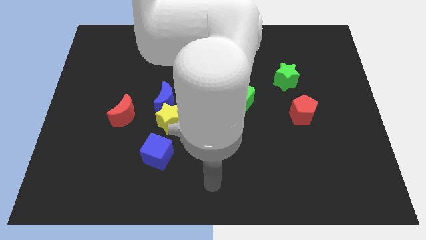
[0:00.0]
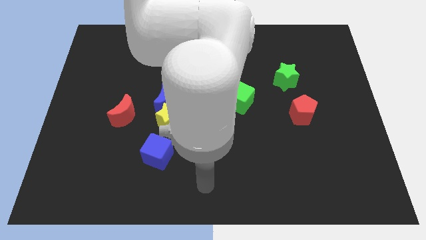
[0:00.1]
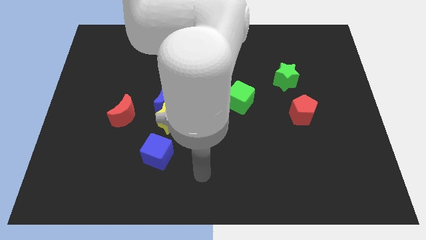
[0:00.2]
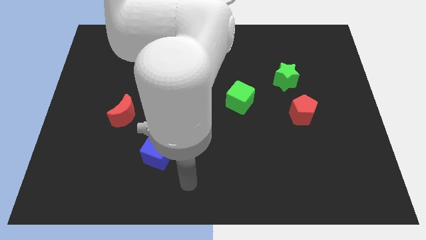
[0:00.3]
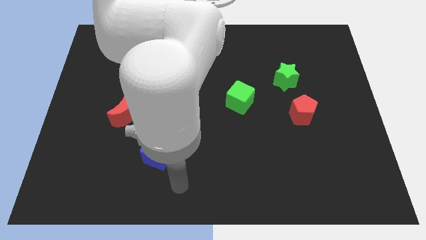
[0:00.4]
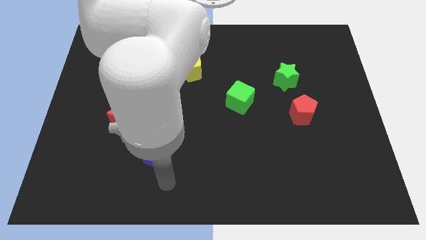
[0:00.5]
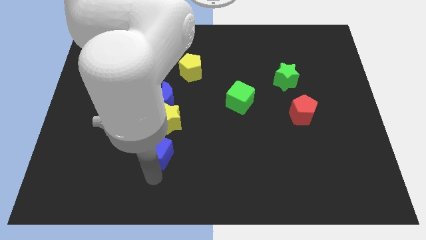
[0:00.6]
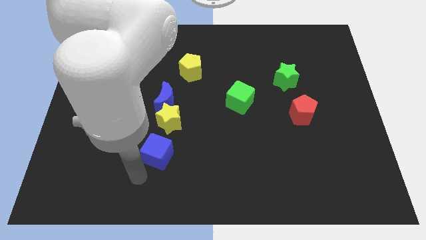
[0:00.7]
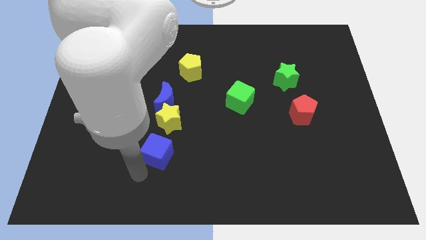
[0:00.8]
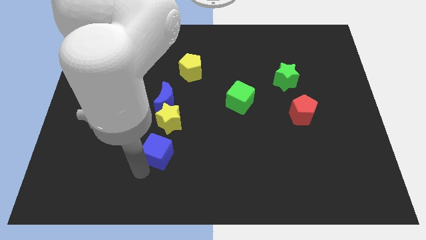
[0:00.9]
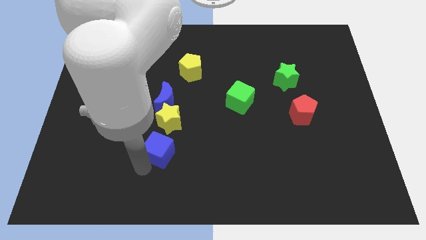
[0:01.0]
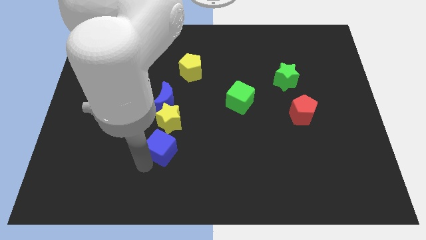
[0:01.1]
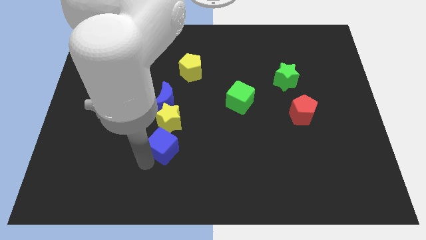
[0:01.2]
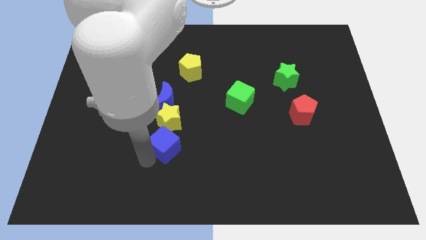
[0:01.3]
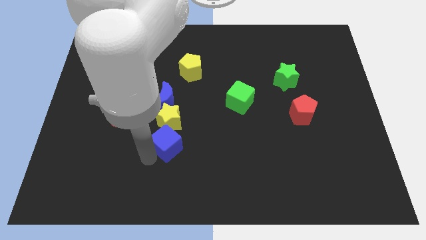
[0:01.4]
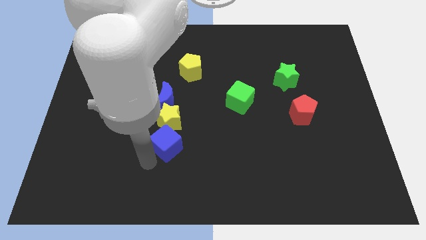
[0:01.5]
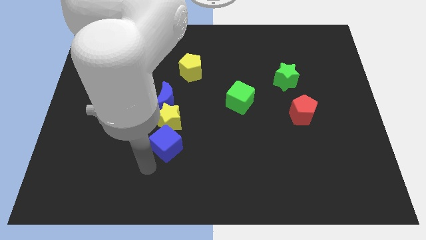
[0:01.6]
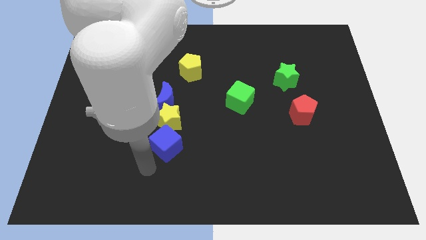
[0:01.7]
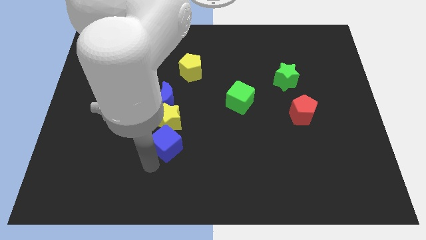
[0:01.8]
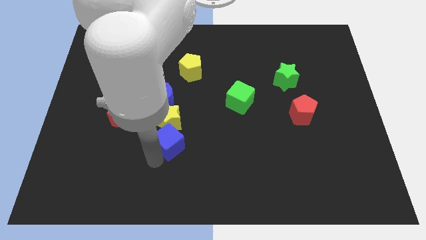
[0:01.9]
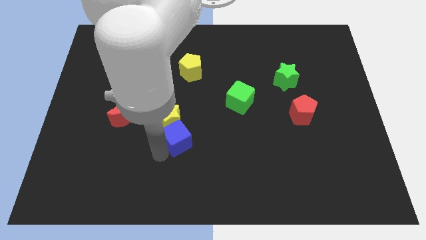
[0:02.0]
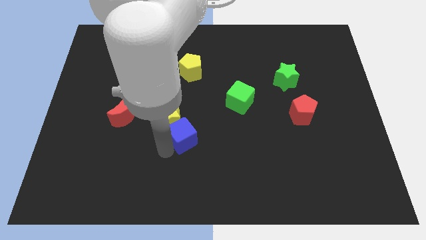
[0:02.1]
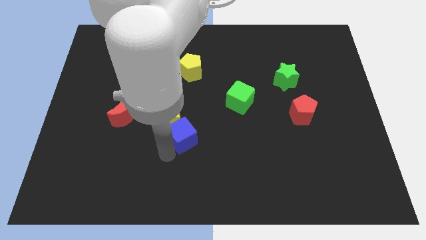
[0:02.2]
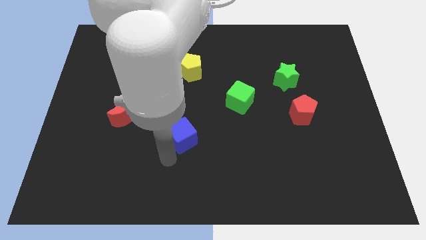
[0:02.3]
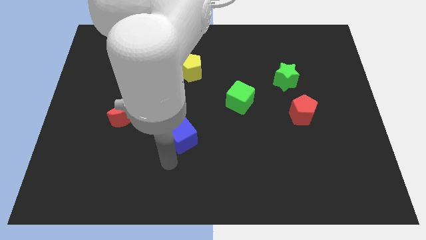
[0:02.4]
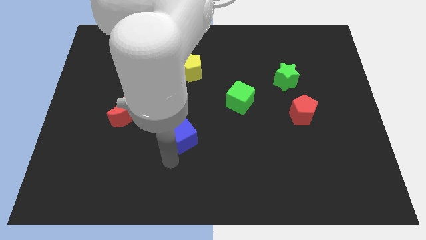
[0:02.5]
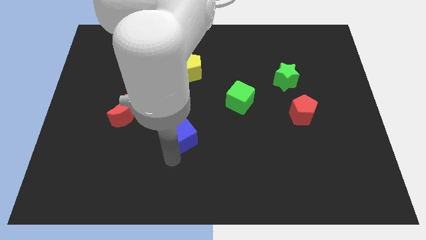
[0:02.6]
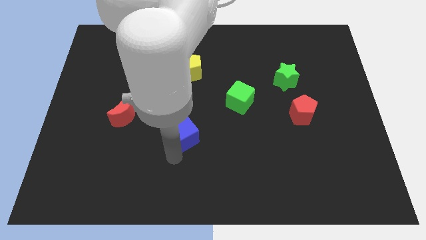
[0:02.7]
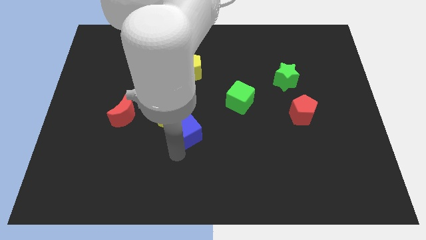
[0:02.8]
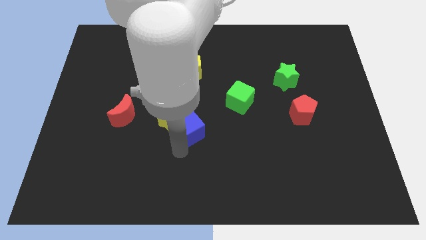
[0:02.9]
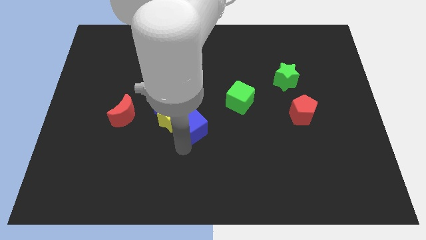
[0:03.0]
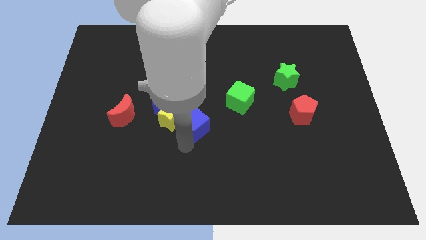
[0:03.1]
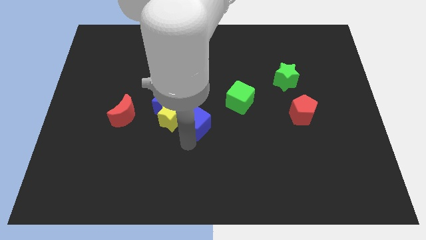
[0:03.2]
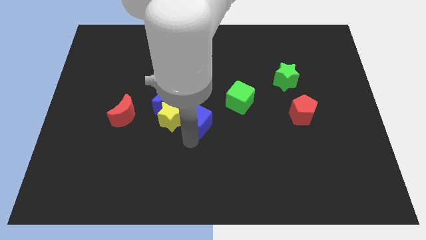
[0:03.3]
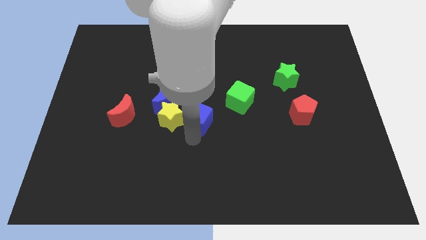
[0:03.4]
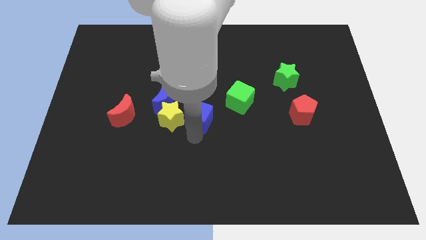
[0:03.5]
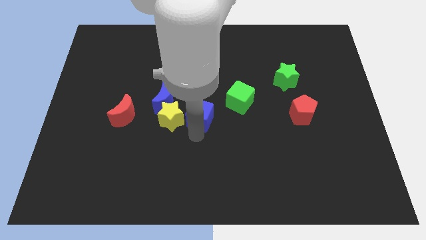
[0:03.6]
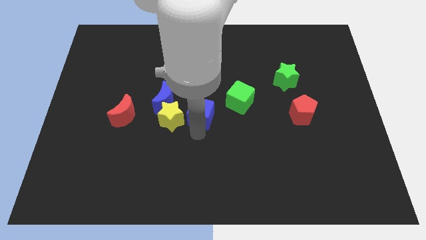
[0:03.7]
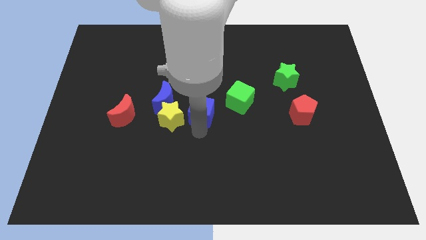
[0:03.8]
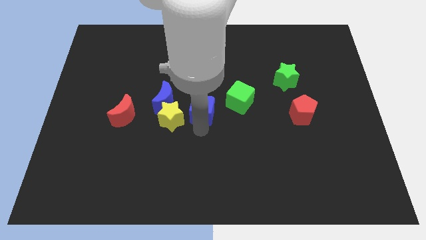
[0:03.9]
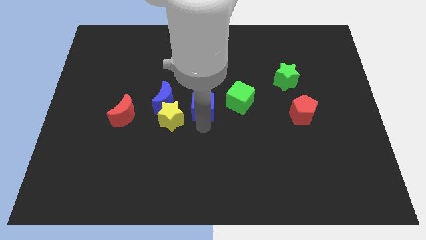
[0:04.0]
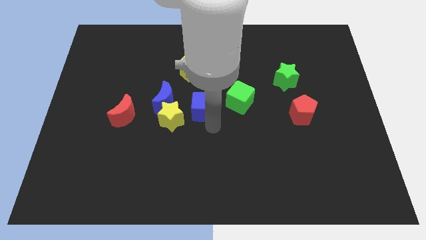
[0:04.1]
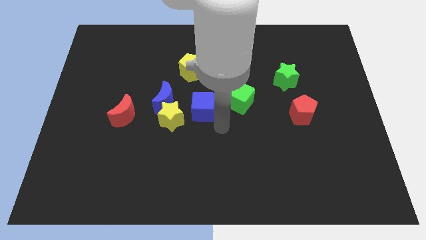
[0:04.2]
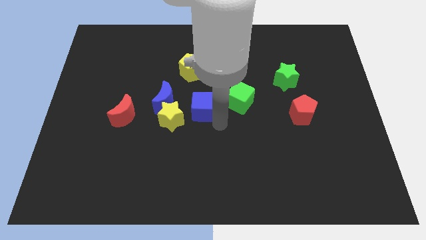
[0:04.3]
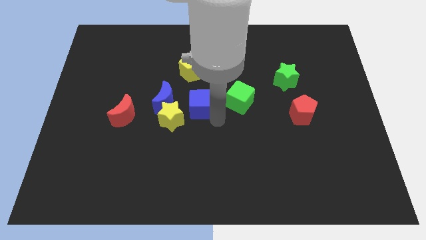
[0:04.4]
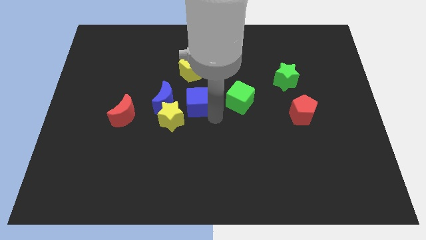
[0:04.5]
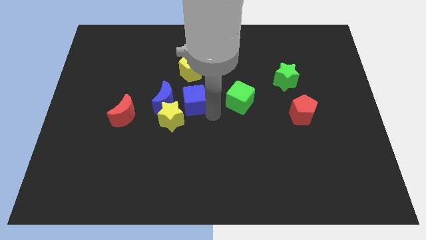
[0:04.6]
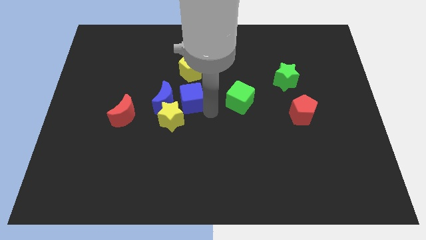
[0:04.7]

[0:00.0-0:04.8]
put the blue cube to the top side of the yellow star

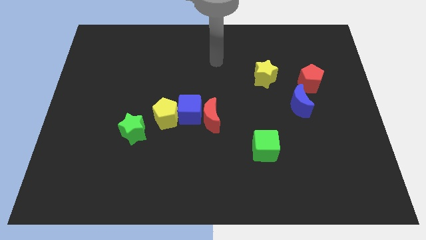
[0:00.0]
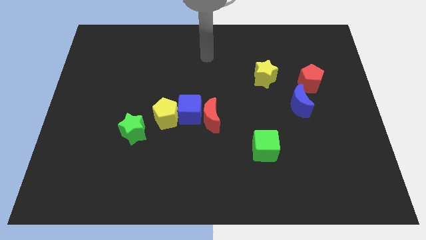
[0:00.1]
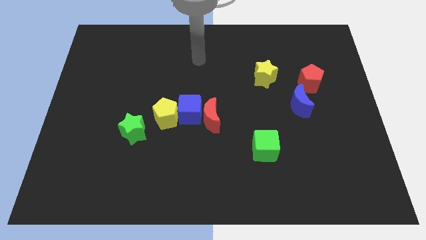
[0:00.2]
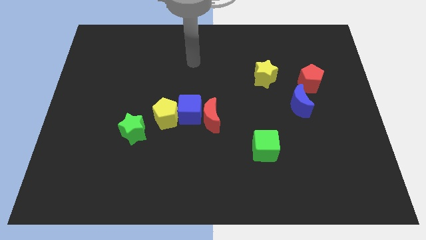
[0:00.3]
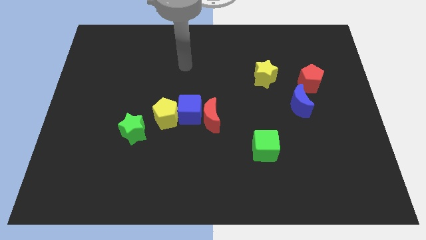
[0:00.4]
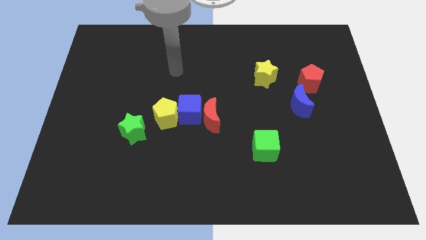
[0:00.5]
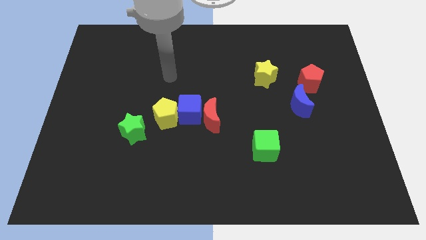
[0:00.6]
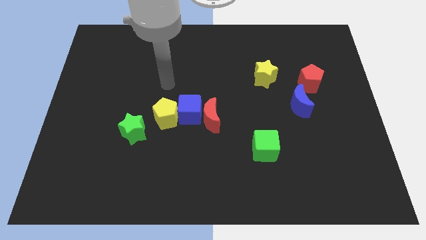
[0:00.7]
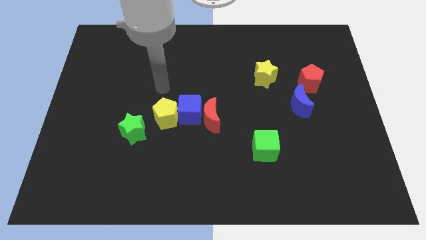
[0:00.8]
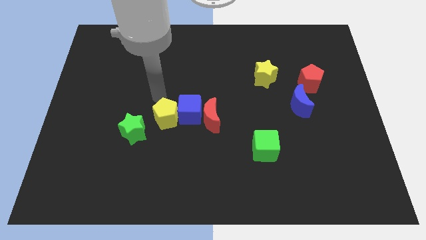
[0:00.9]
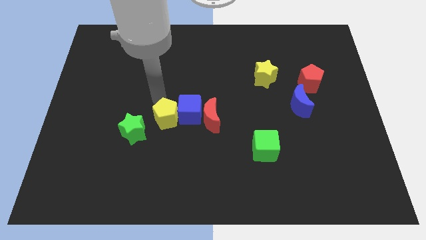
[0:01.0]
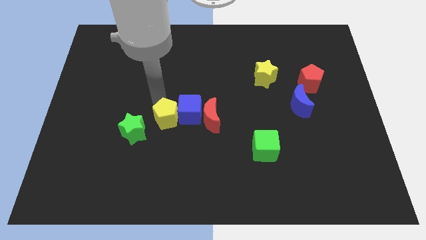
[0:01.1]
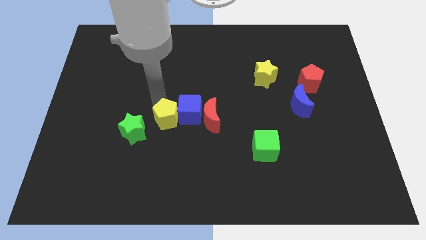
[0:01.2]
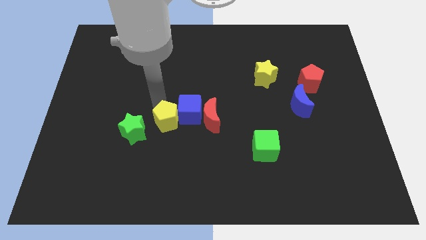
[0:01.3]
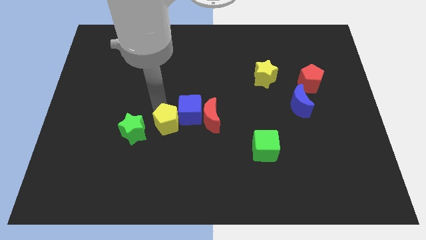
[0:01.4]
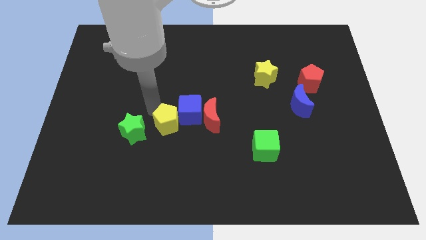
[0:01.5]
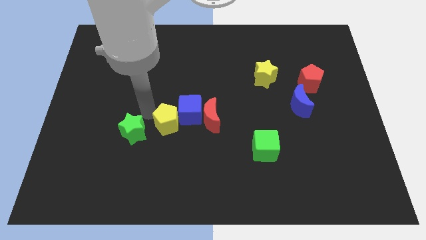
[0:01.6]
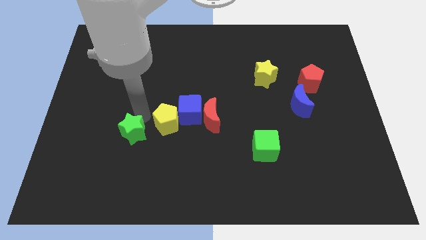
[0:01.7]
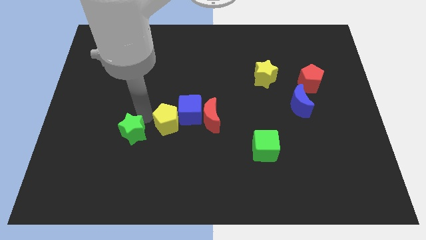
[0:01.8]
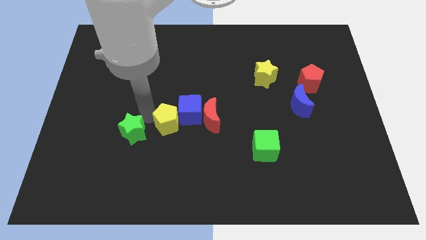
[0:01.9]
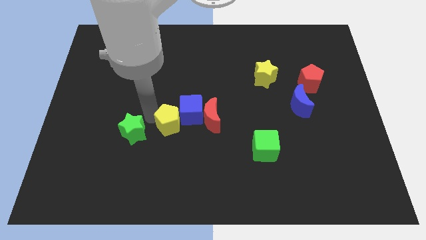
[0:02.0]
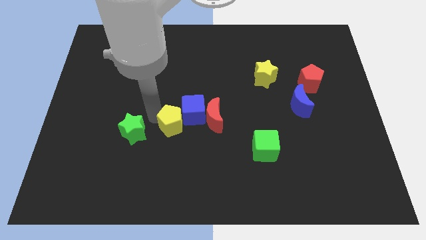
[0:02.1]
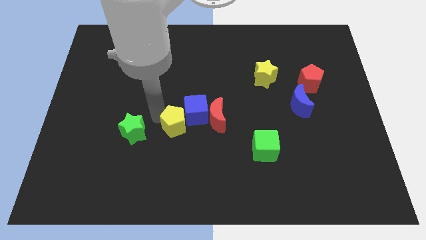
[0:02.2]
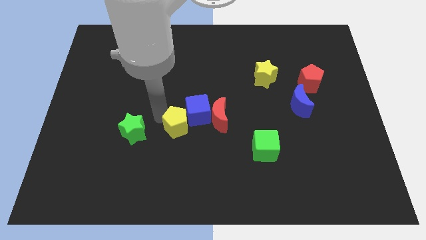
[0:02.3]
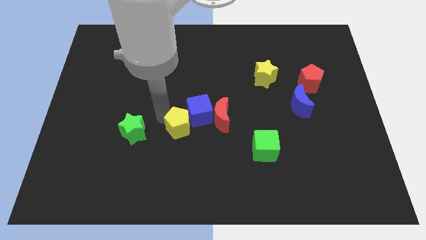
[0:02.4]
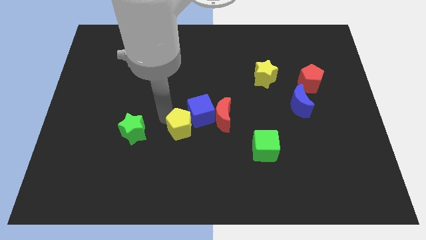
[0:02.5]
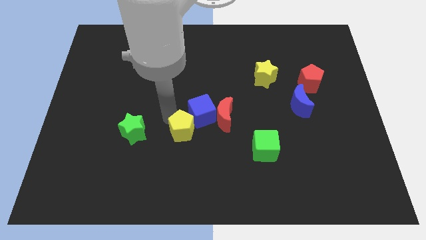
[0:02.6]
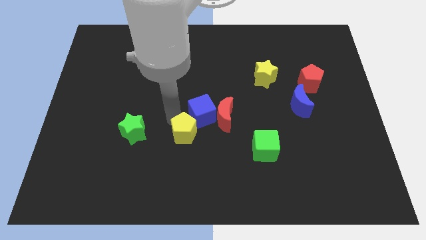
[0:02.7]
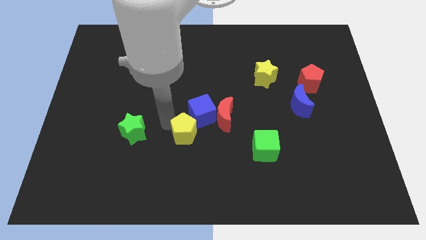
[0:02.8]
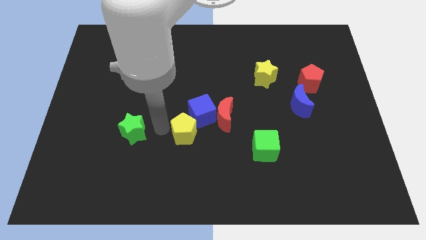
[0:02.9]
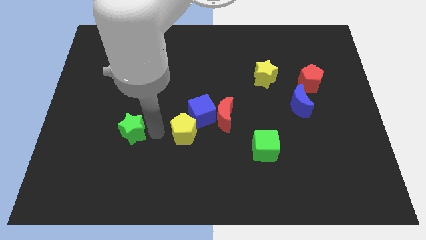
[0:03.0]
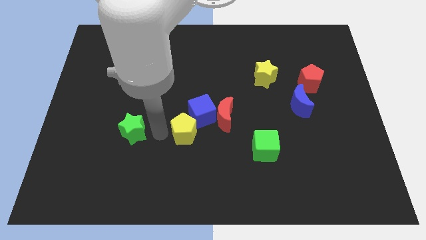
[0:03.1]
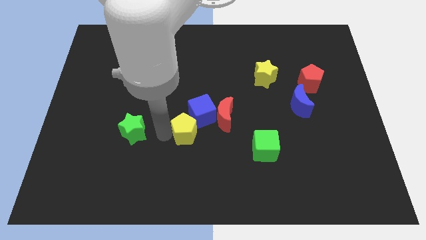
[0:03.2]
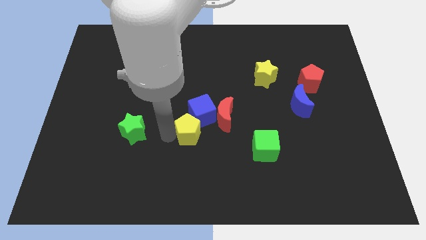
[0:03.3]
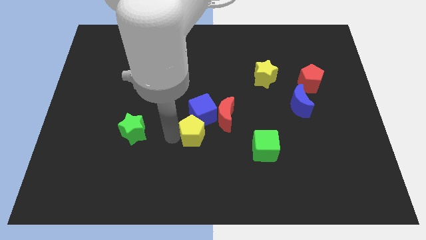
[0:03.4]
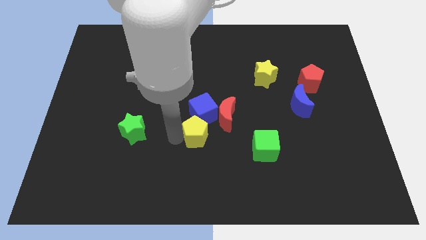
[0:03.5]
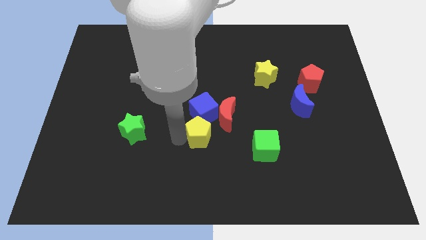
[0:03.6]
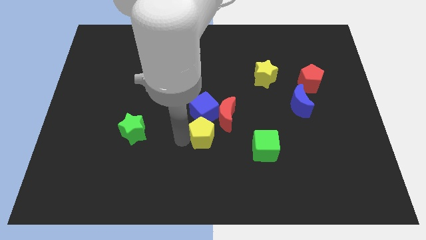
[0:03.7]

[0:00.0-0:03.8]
push the yellow pentagon diagonally down and to the right of the blue cube
